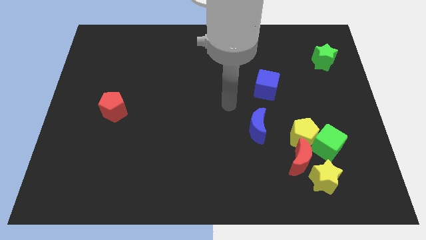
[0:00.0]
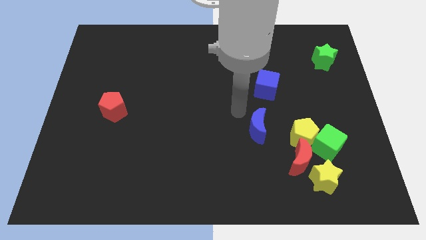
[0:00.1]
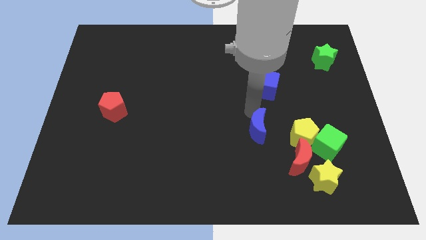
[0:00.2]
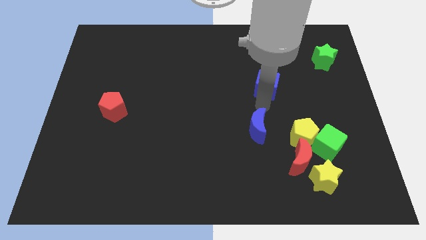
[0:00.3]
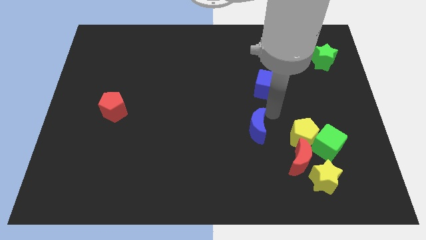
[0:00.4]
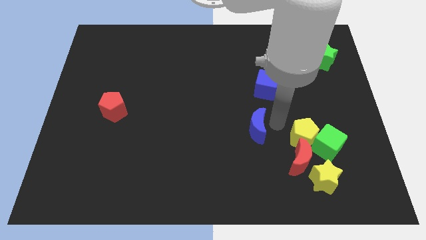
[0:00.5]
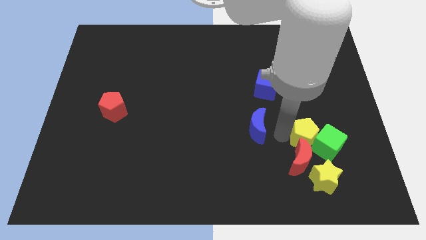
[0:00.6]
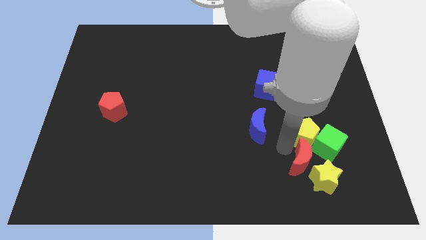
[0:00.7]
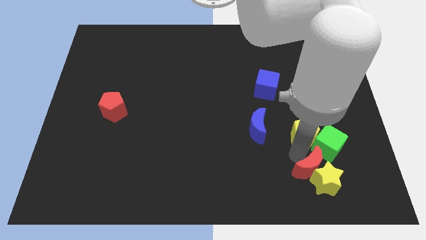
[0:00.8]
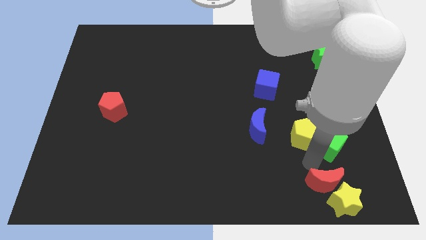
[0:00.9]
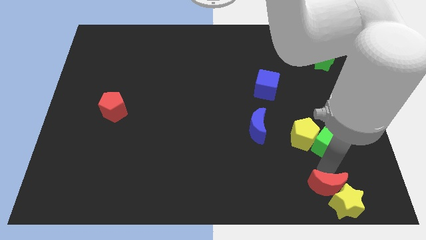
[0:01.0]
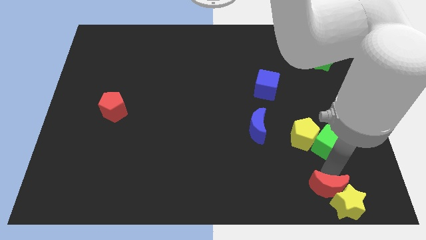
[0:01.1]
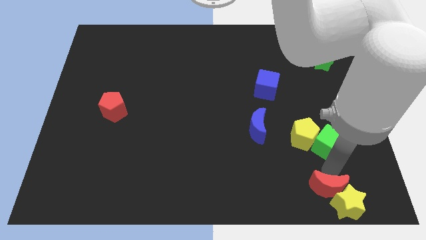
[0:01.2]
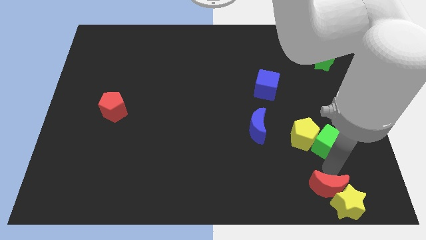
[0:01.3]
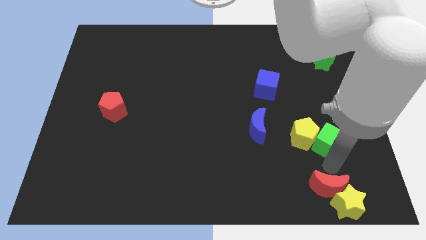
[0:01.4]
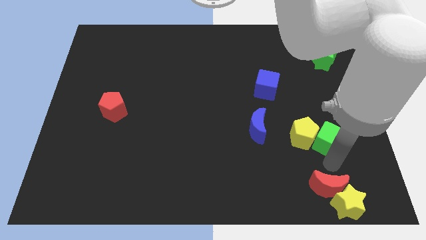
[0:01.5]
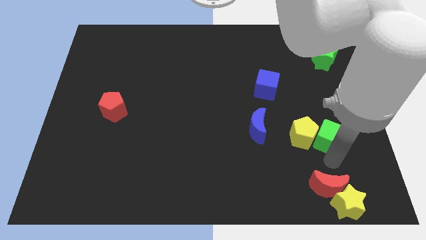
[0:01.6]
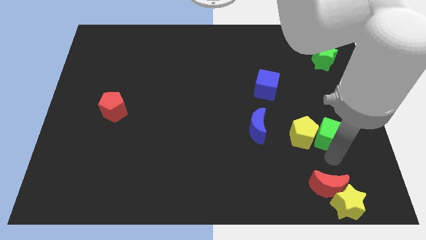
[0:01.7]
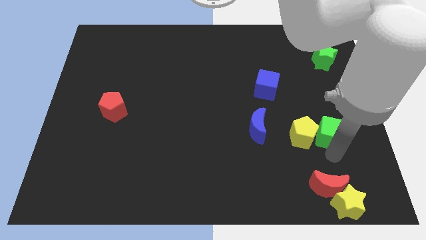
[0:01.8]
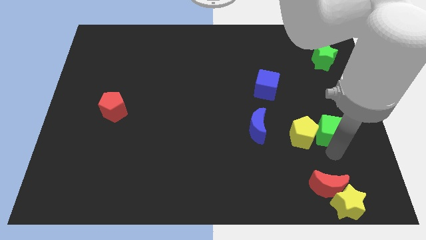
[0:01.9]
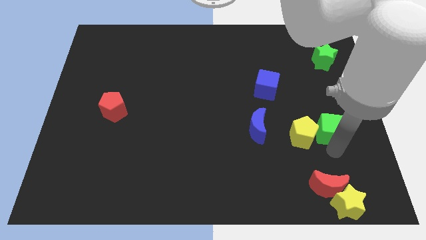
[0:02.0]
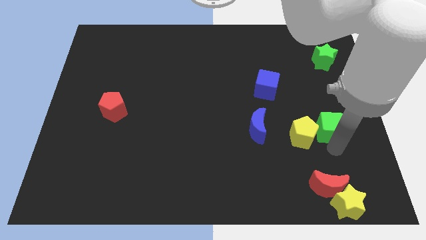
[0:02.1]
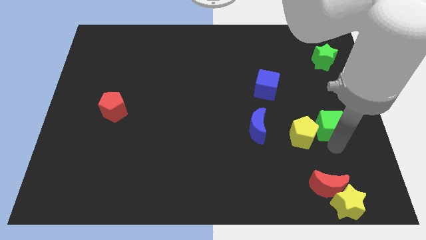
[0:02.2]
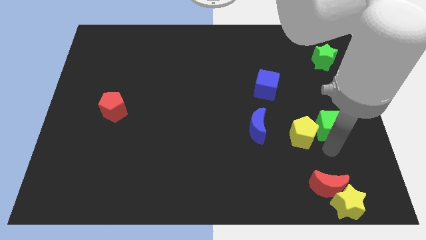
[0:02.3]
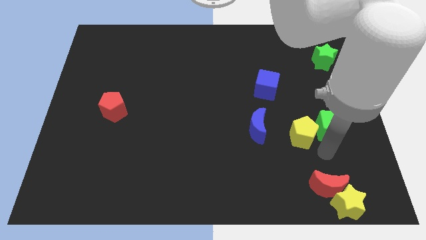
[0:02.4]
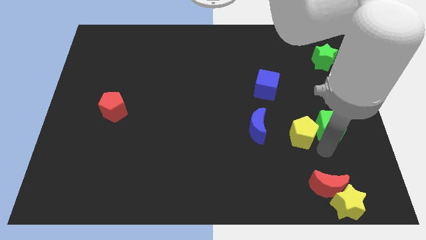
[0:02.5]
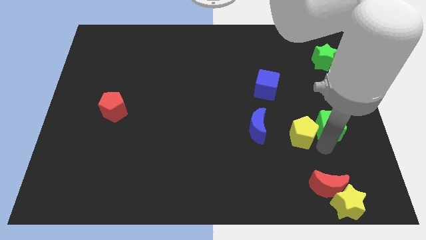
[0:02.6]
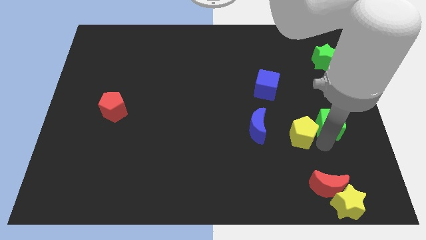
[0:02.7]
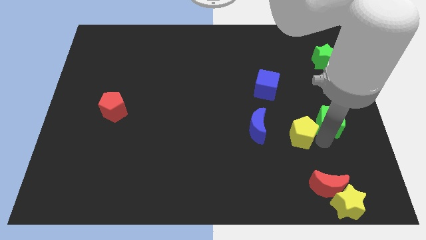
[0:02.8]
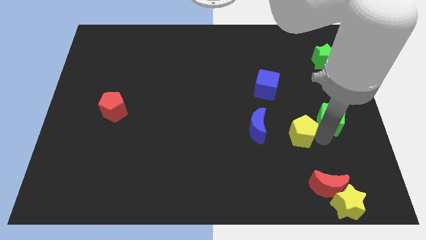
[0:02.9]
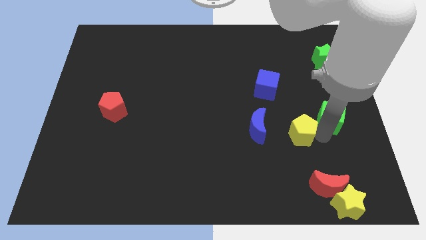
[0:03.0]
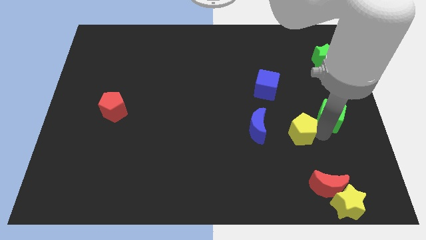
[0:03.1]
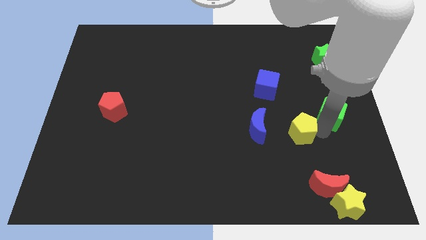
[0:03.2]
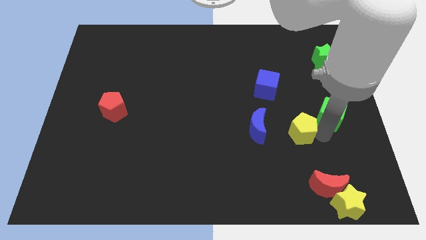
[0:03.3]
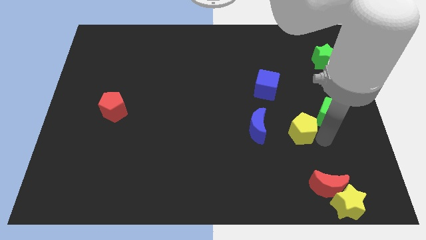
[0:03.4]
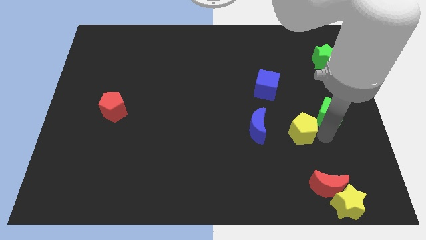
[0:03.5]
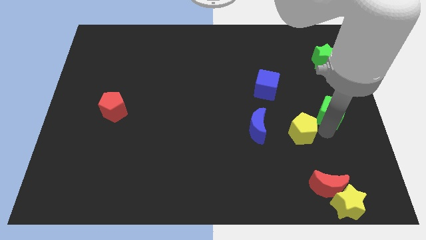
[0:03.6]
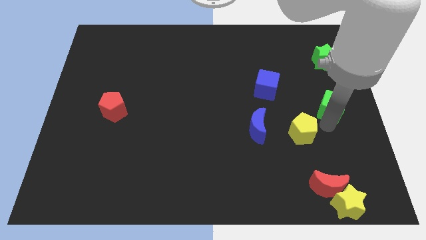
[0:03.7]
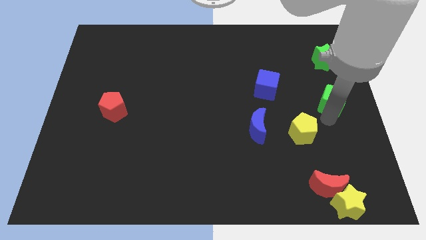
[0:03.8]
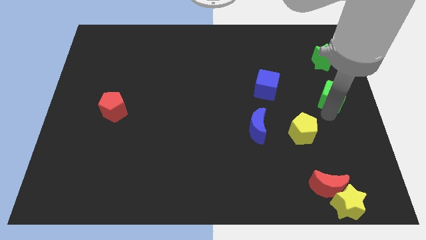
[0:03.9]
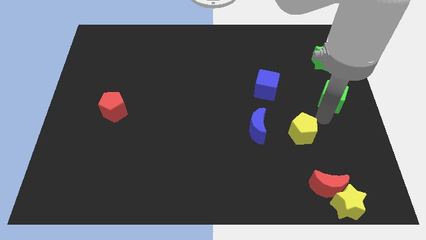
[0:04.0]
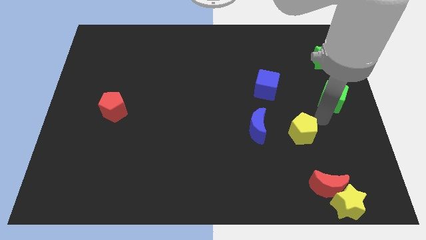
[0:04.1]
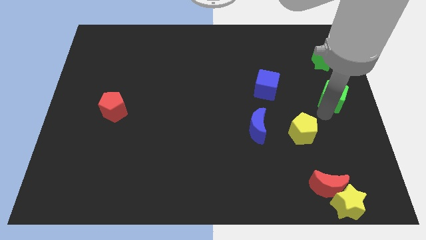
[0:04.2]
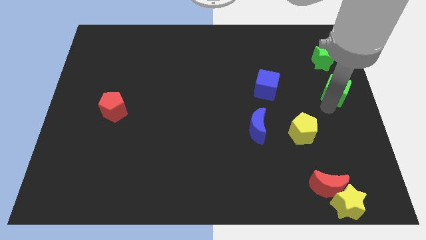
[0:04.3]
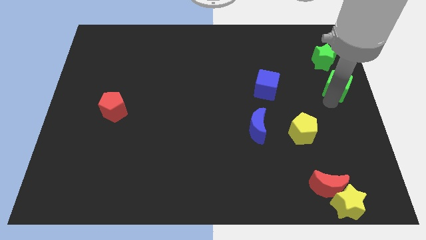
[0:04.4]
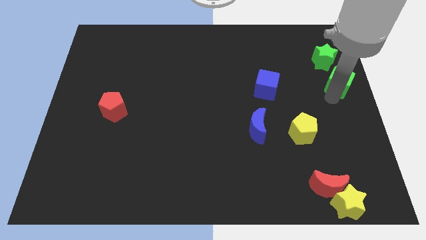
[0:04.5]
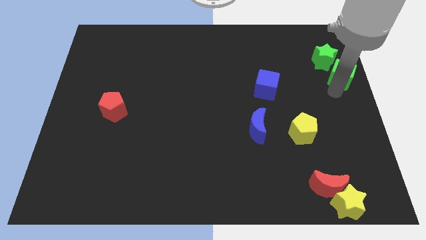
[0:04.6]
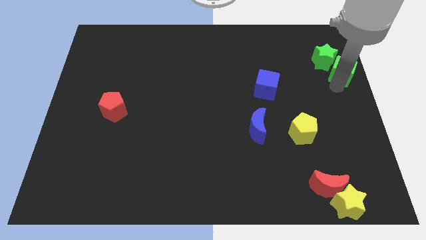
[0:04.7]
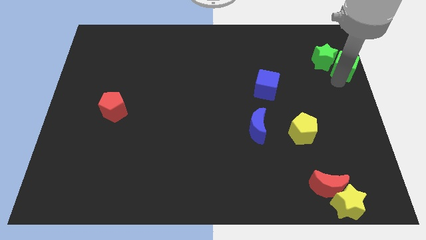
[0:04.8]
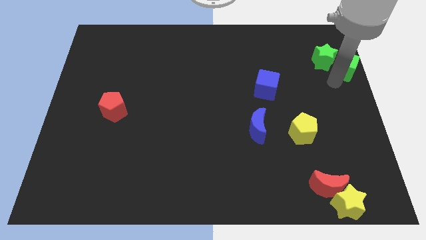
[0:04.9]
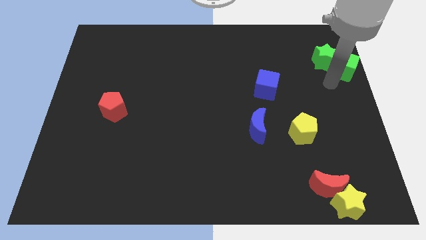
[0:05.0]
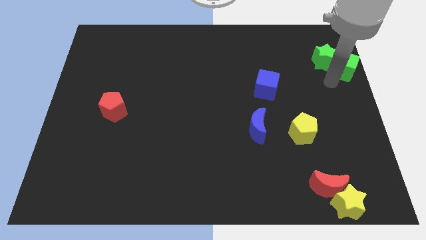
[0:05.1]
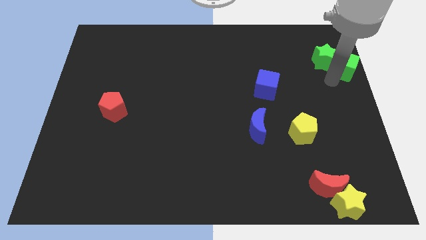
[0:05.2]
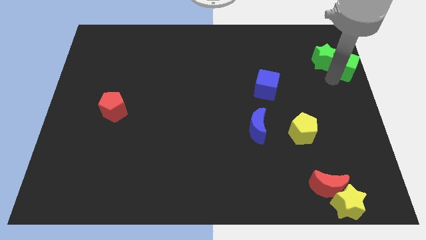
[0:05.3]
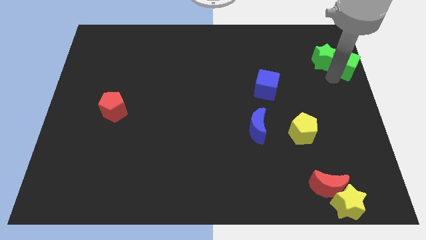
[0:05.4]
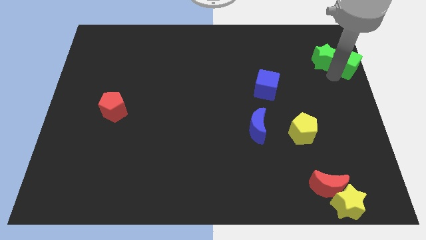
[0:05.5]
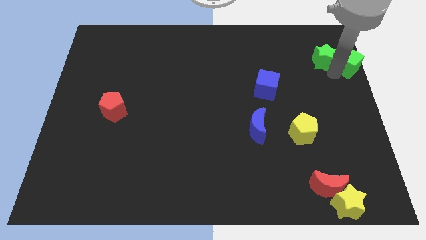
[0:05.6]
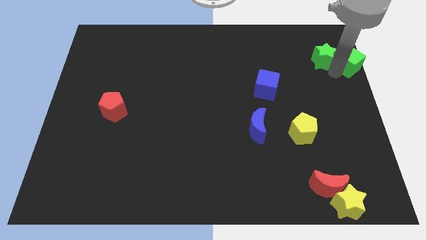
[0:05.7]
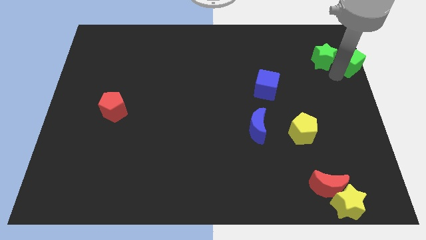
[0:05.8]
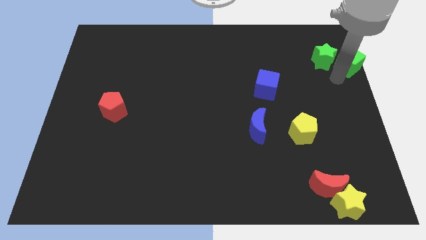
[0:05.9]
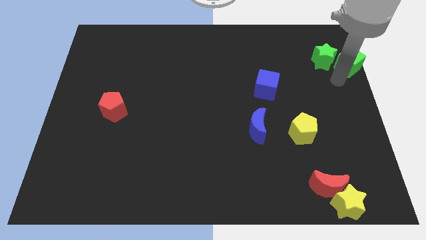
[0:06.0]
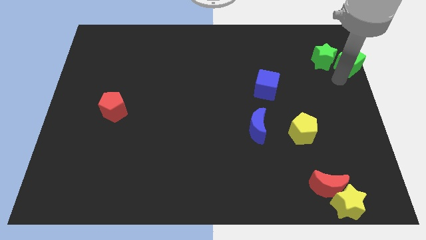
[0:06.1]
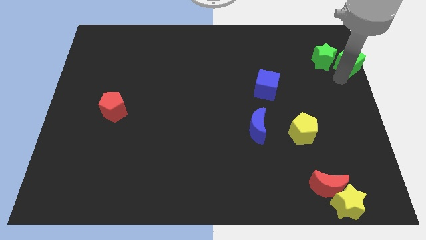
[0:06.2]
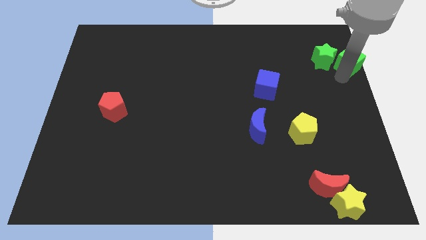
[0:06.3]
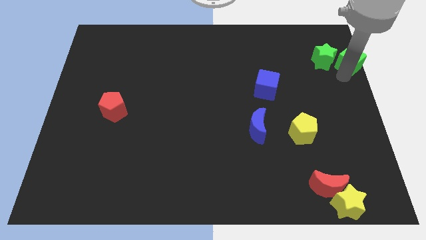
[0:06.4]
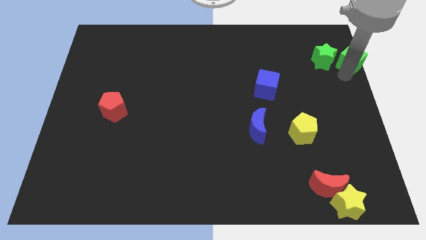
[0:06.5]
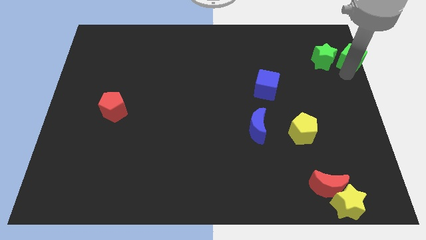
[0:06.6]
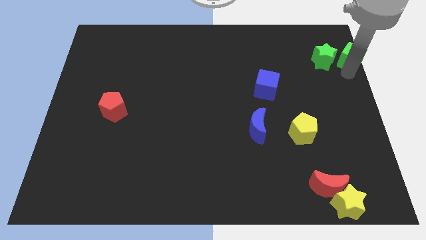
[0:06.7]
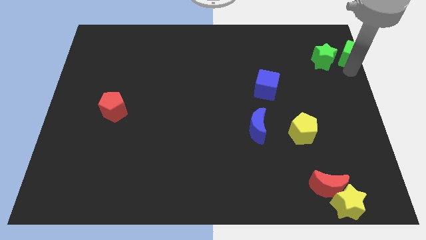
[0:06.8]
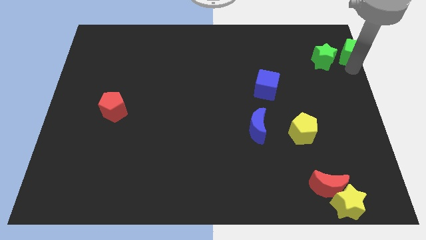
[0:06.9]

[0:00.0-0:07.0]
move the green cube to the upper right corner

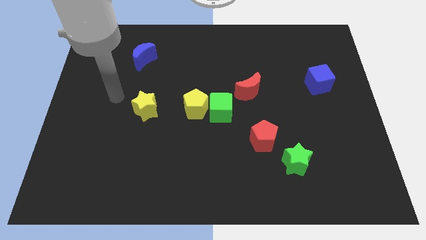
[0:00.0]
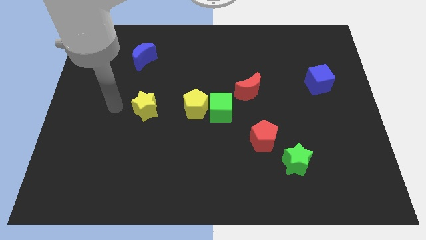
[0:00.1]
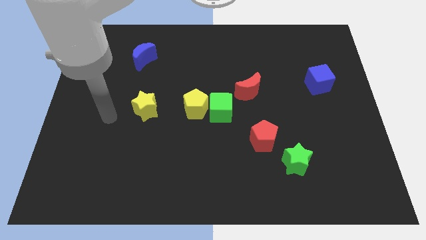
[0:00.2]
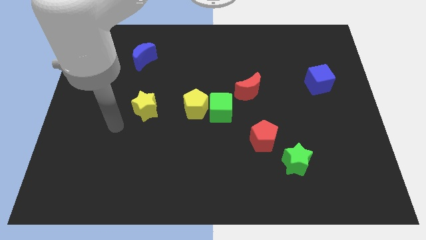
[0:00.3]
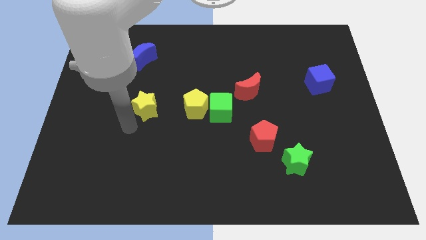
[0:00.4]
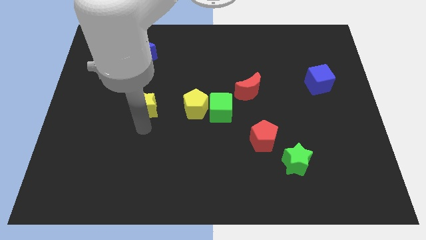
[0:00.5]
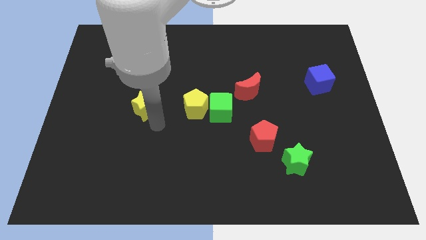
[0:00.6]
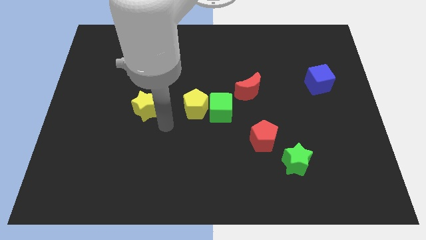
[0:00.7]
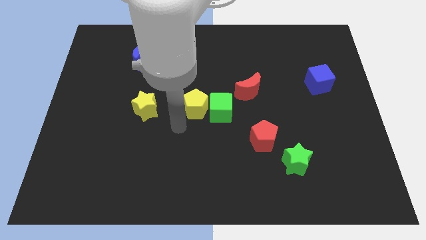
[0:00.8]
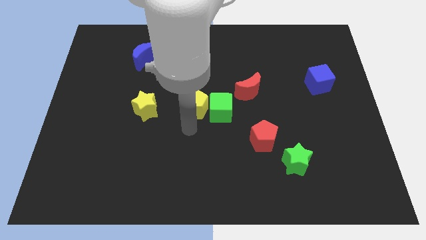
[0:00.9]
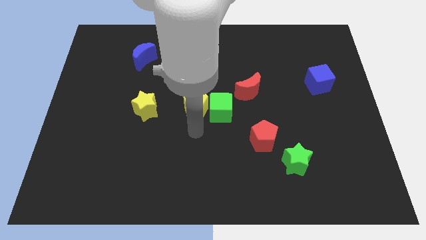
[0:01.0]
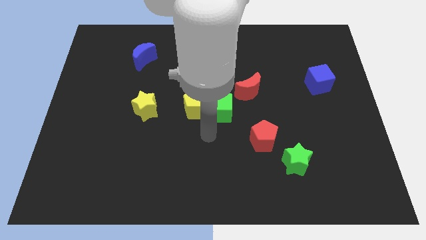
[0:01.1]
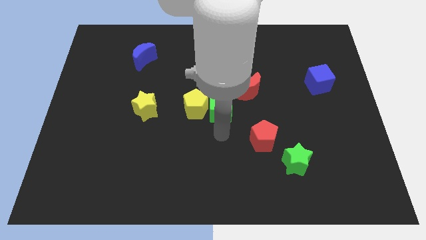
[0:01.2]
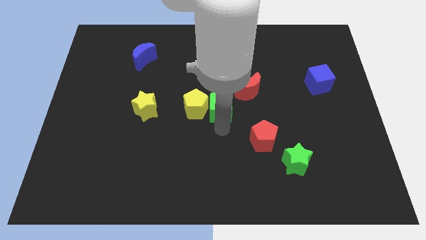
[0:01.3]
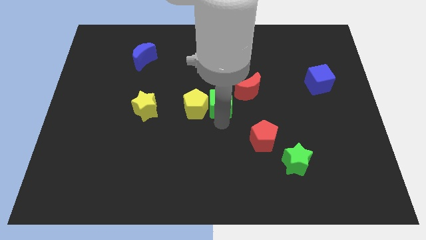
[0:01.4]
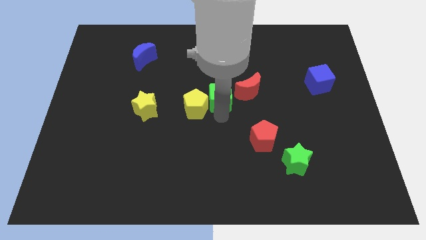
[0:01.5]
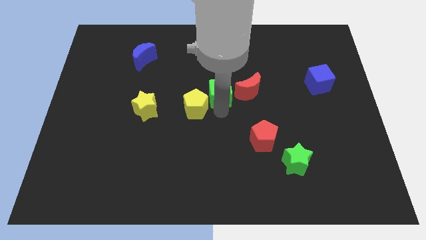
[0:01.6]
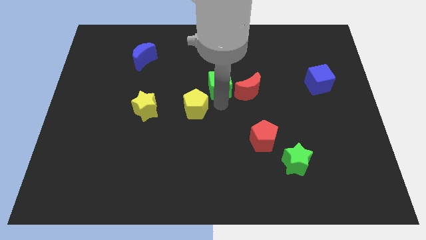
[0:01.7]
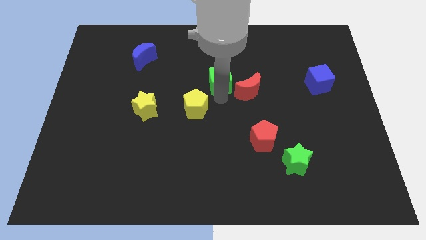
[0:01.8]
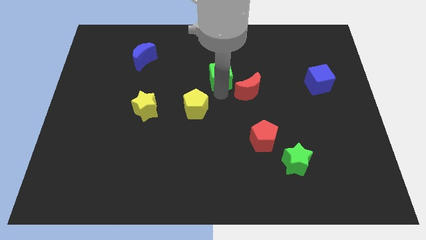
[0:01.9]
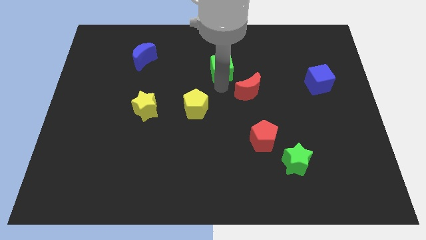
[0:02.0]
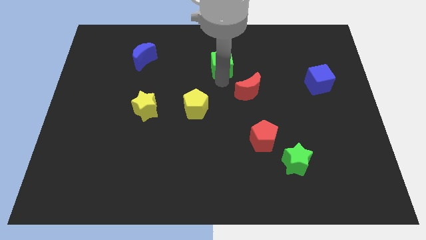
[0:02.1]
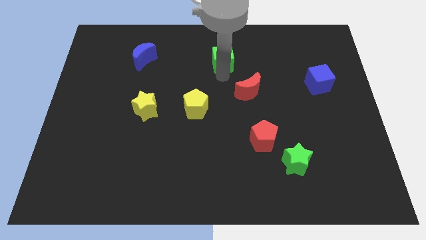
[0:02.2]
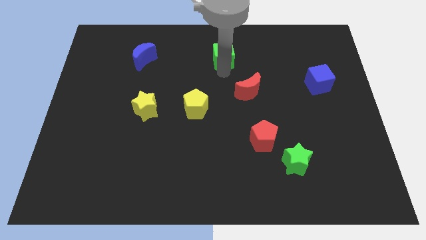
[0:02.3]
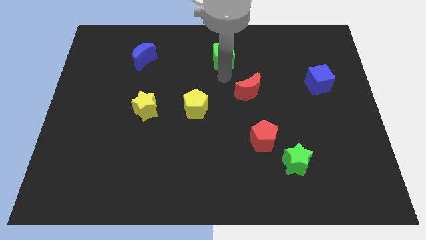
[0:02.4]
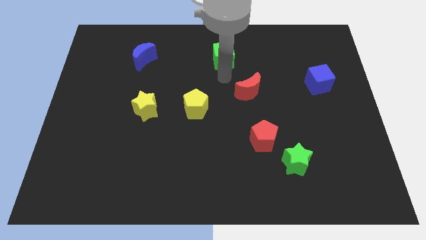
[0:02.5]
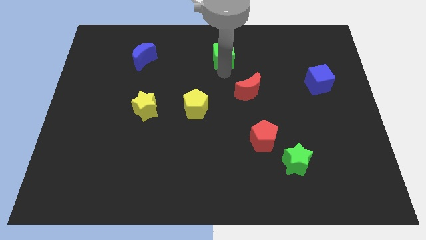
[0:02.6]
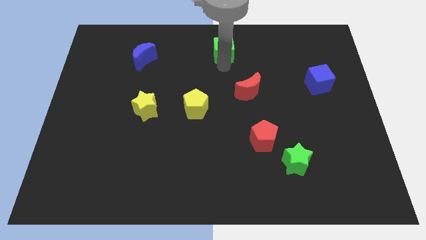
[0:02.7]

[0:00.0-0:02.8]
put the green cube to the top side
